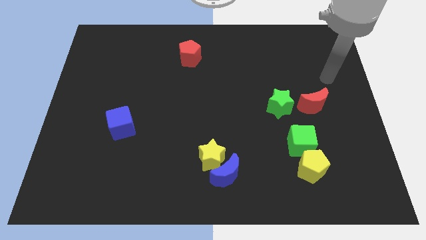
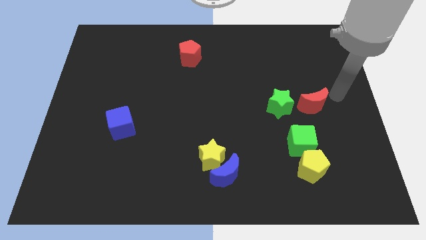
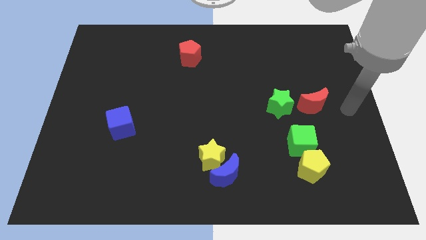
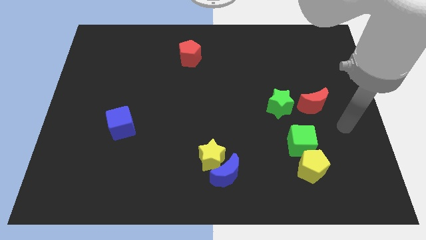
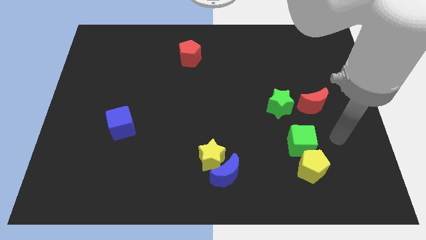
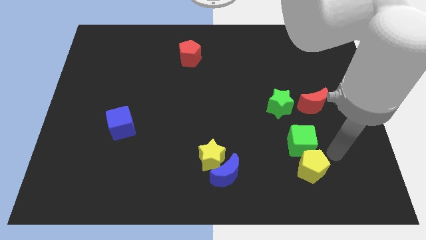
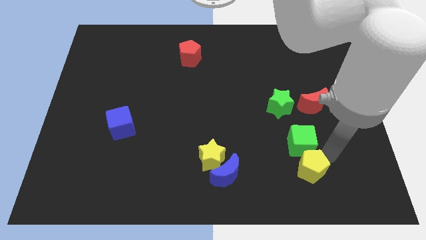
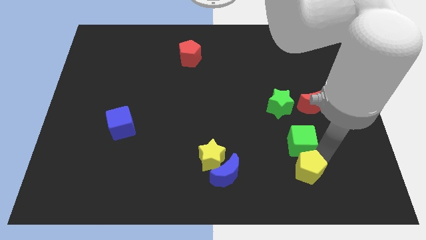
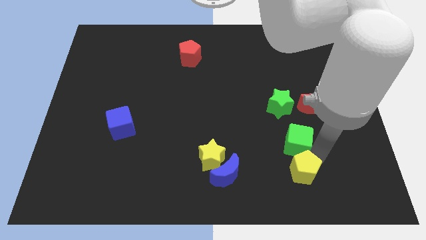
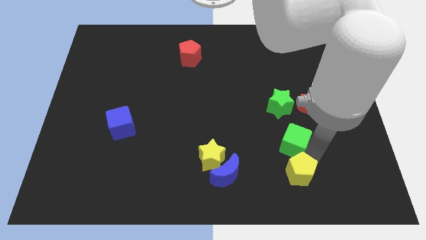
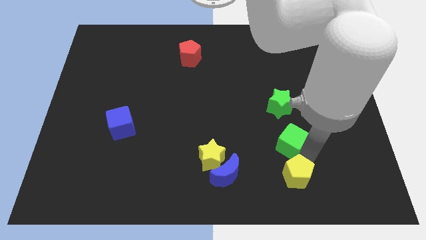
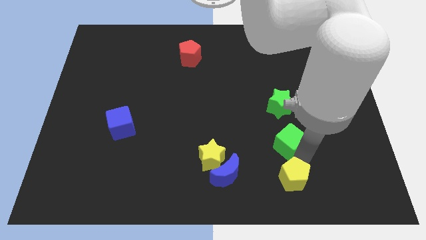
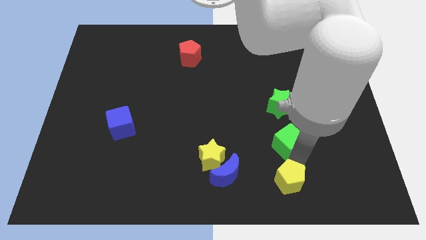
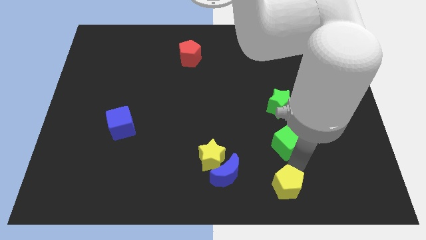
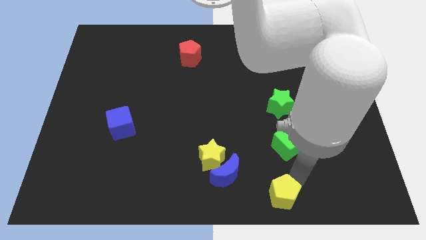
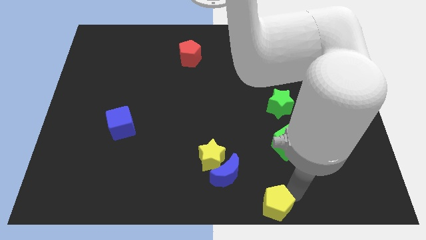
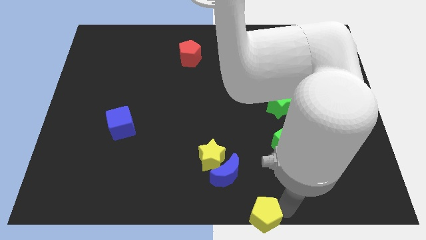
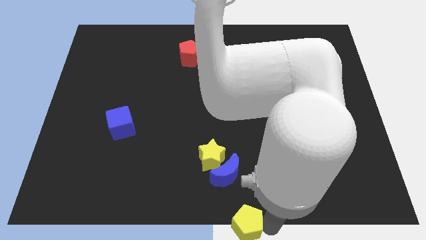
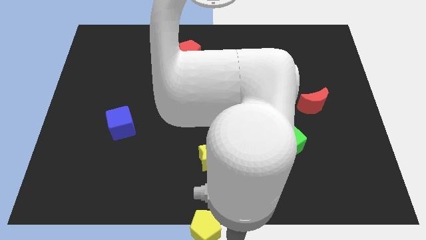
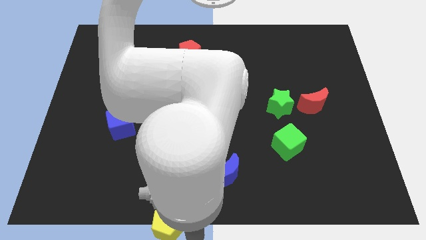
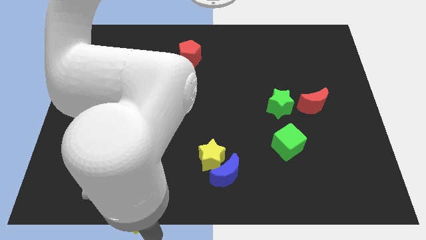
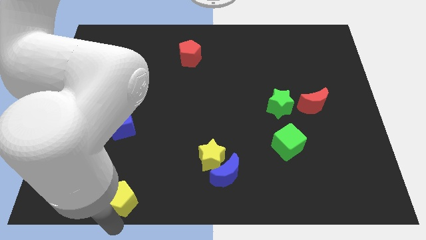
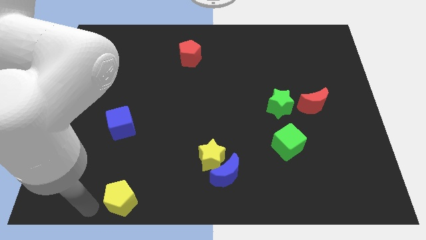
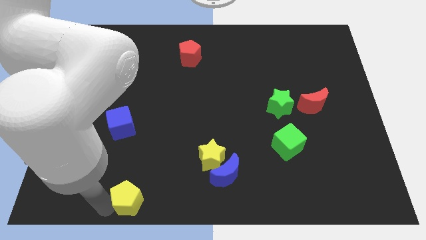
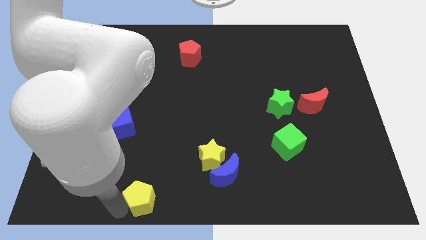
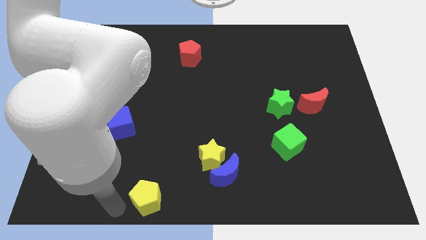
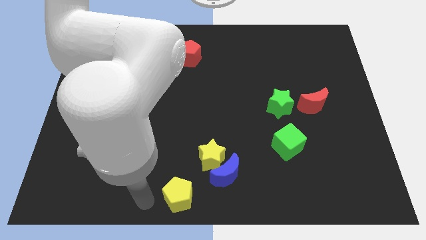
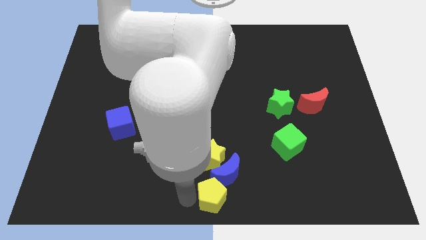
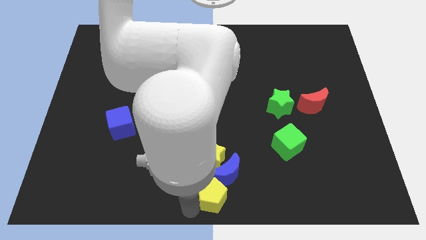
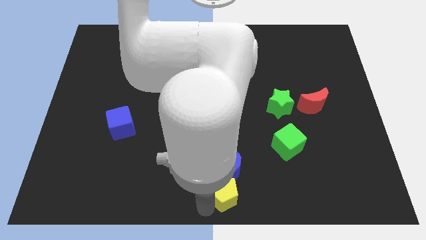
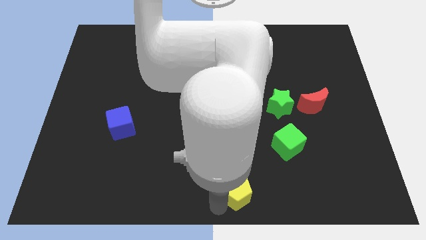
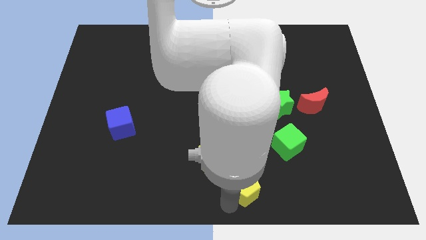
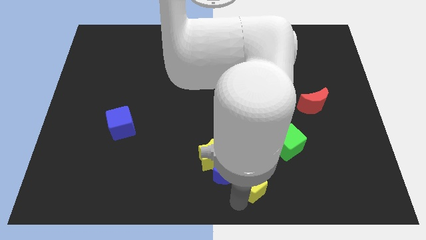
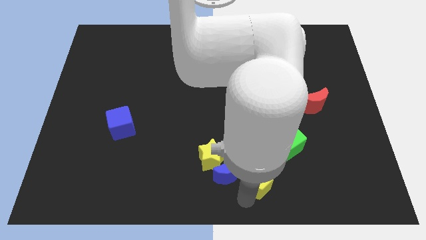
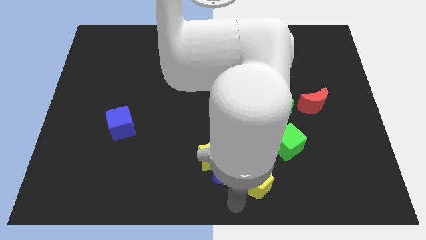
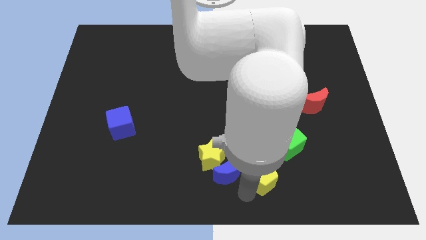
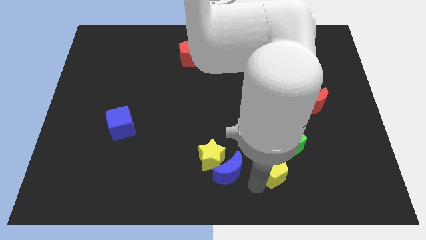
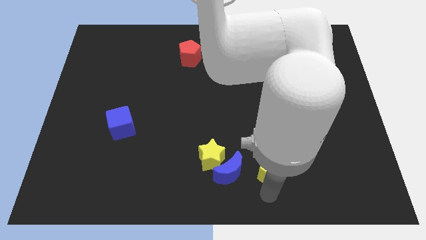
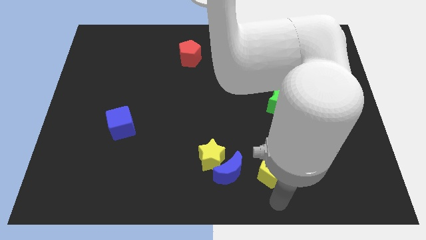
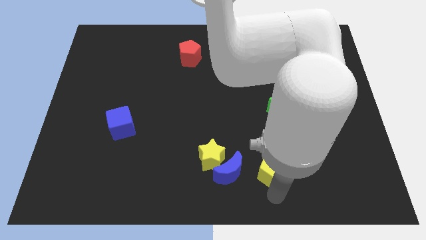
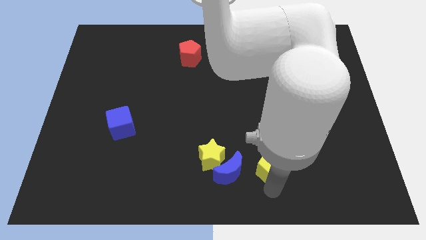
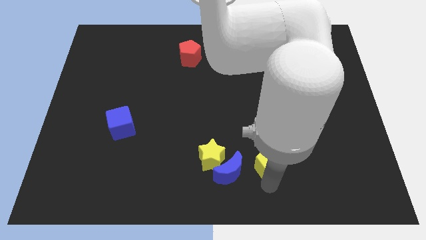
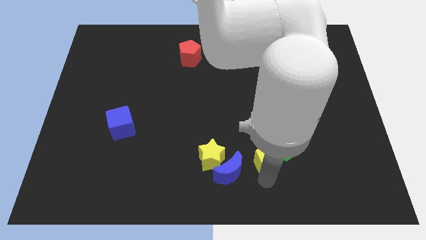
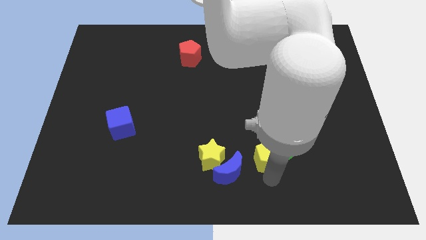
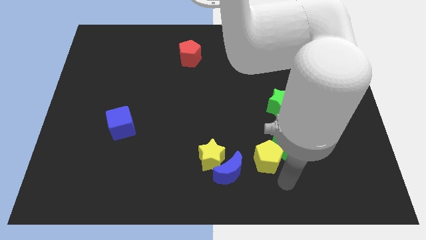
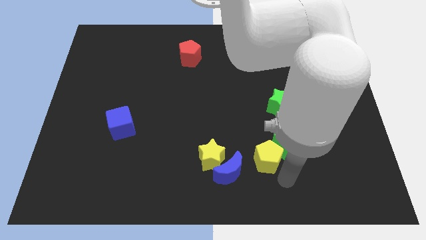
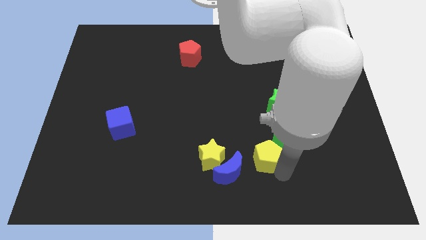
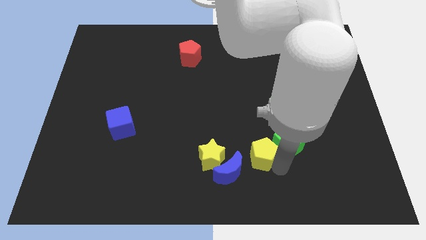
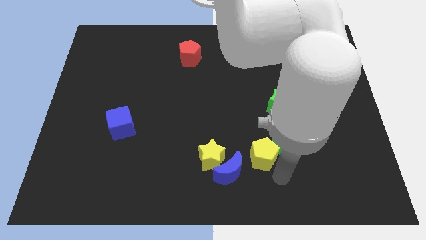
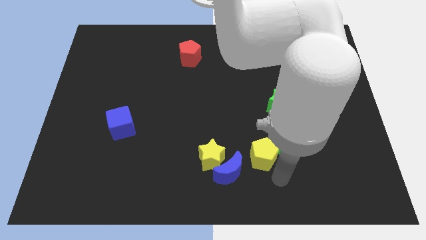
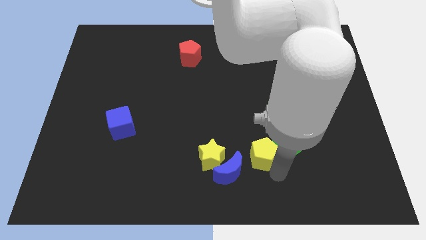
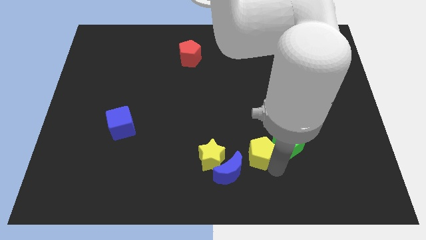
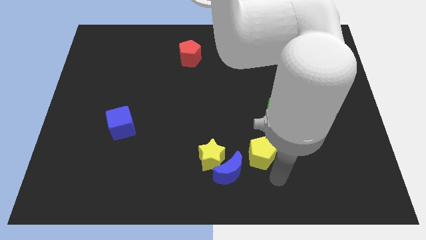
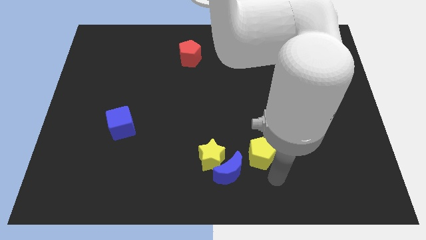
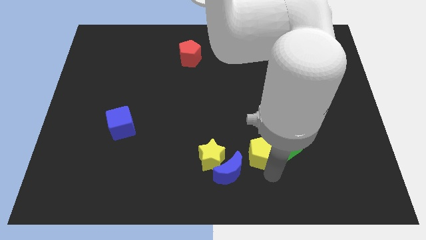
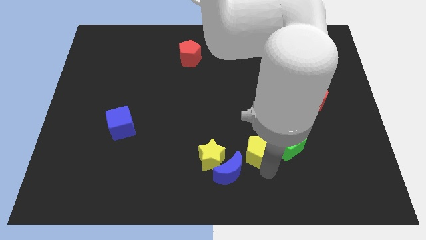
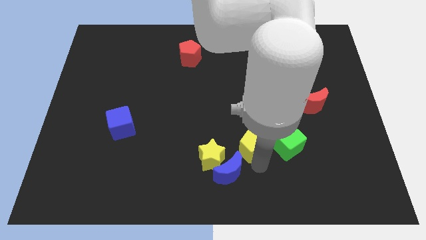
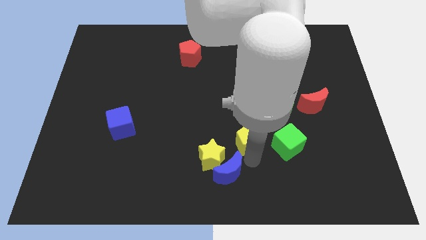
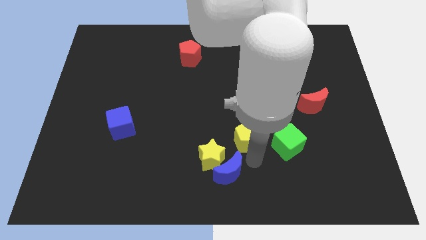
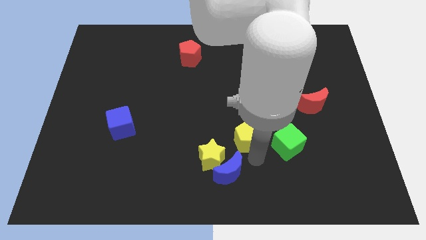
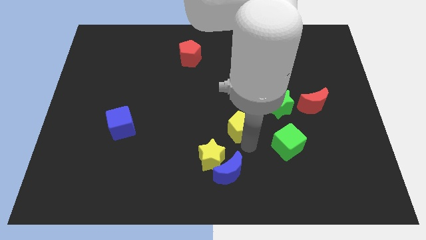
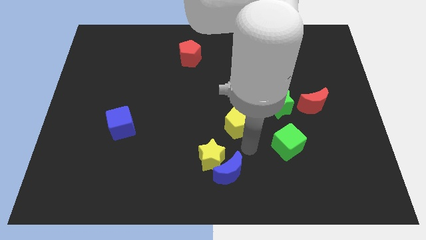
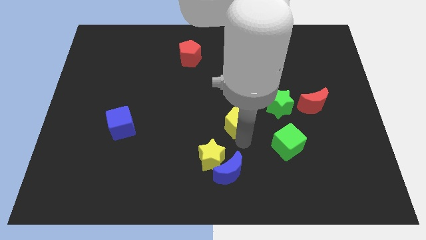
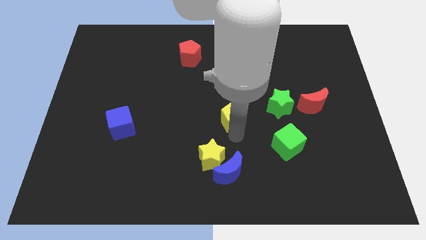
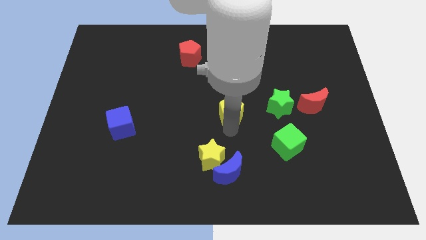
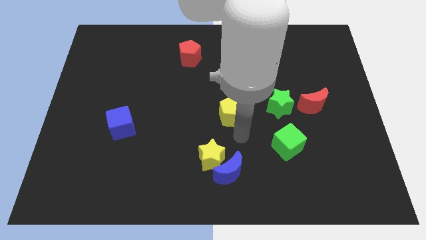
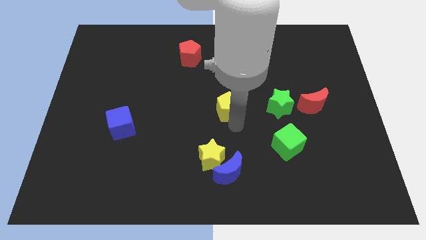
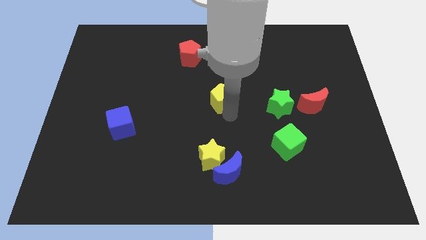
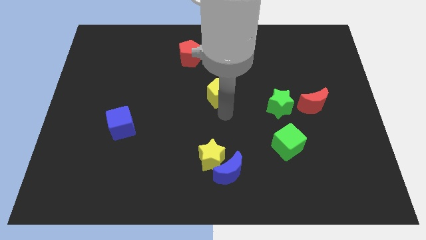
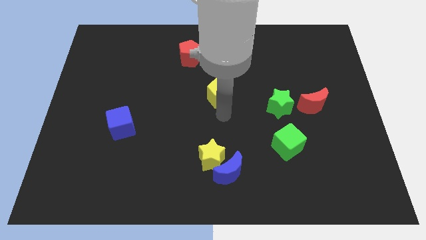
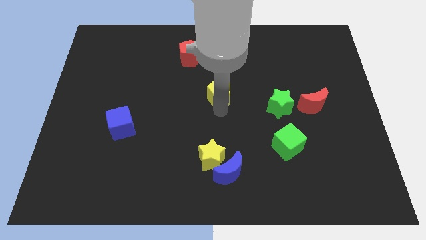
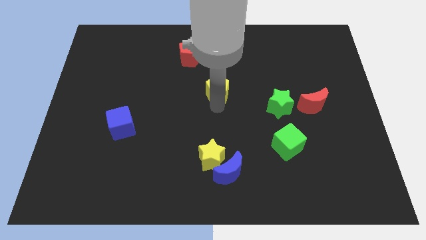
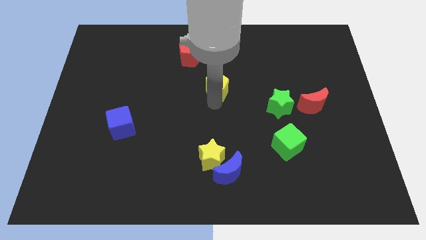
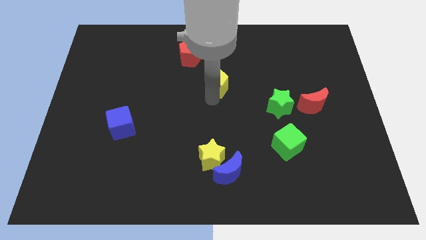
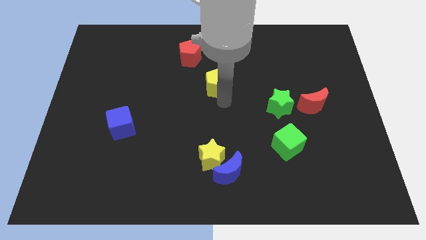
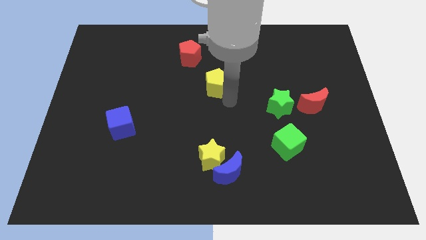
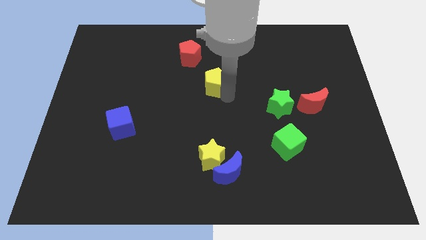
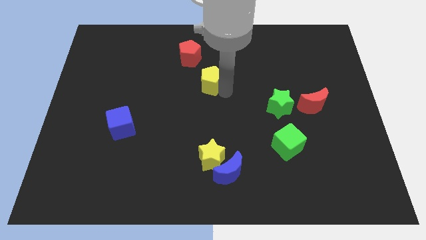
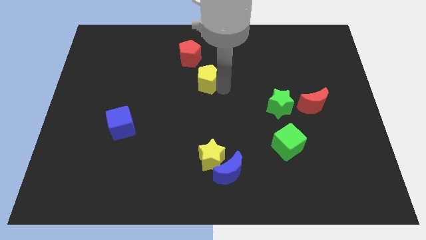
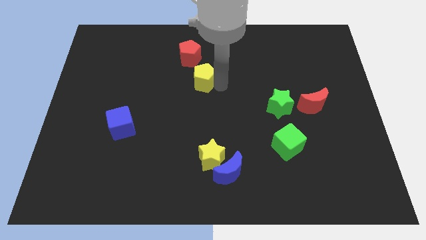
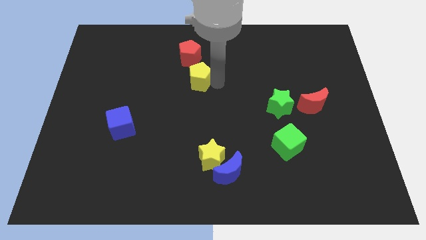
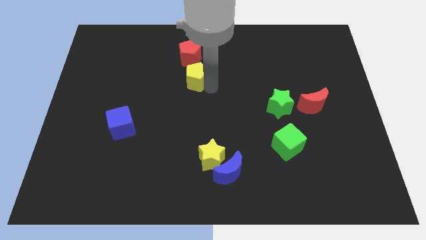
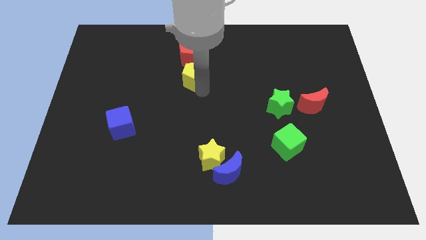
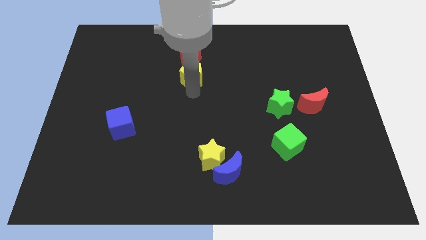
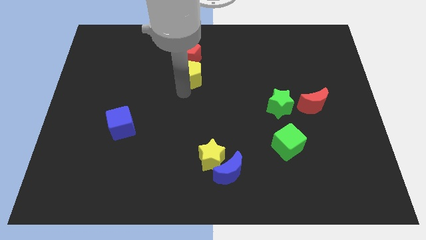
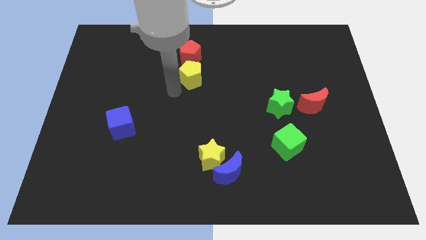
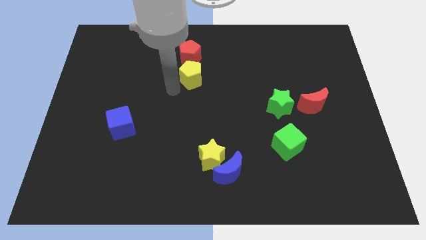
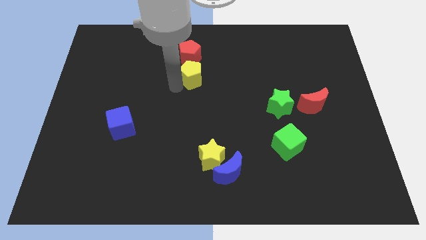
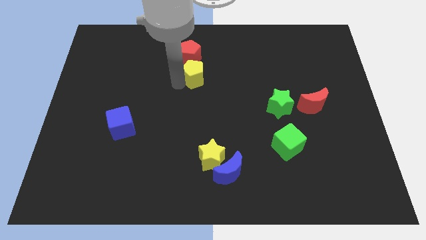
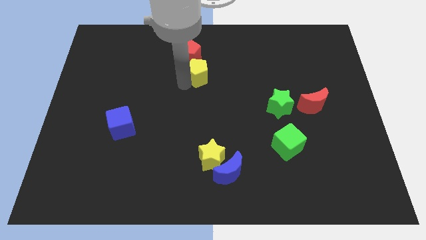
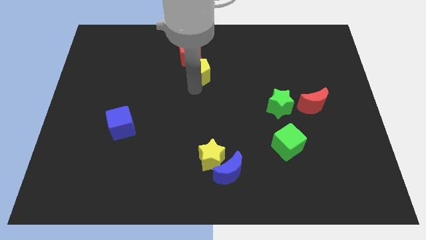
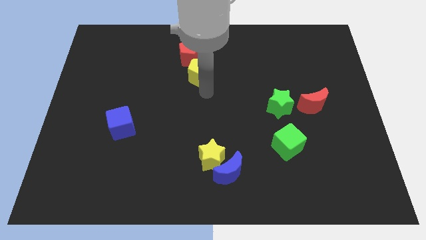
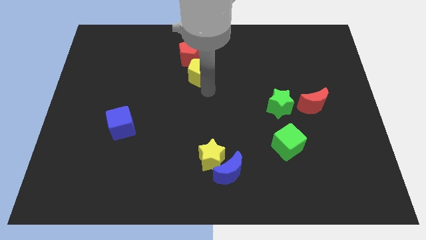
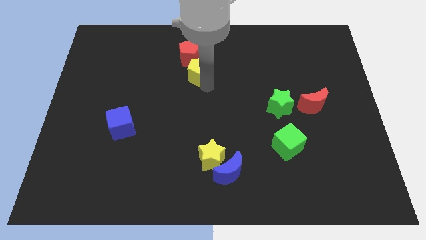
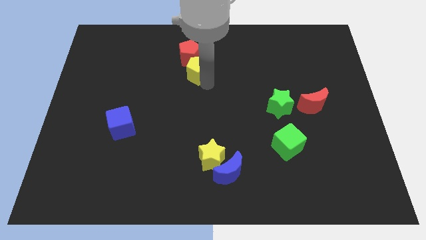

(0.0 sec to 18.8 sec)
move the yellow pentagon to the red pentagon
